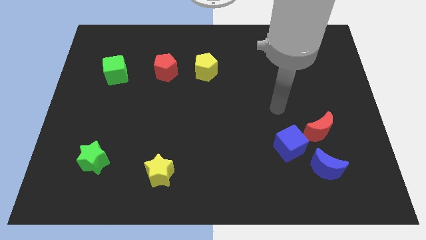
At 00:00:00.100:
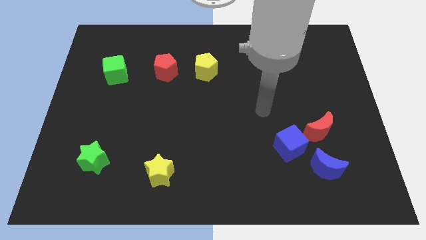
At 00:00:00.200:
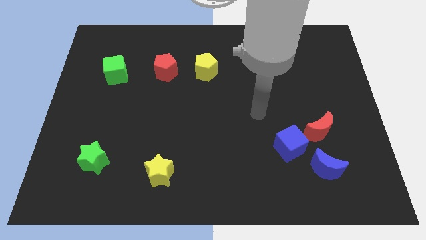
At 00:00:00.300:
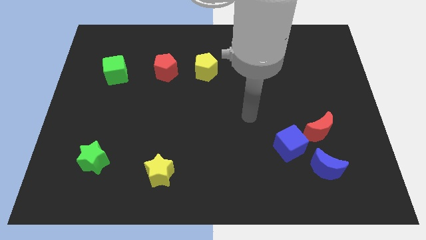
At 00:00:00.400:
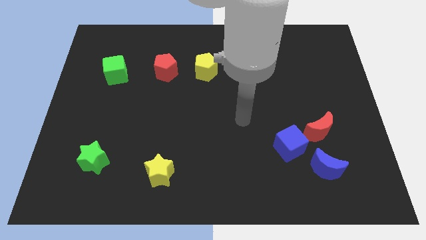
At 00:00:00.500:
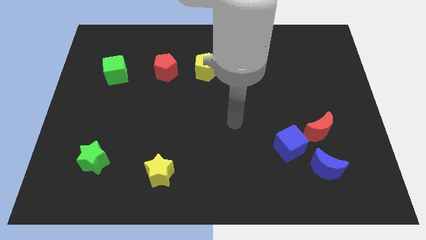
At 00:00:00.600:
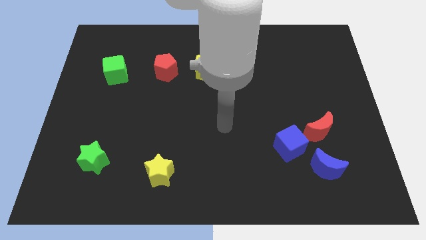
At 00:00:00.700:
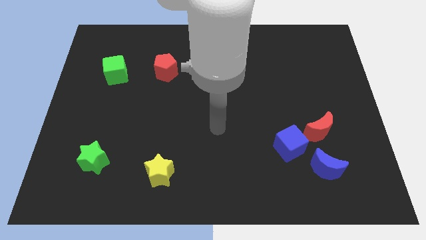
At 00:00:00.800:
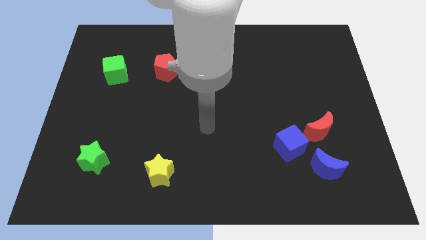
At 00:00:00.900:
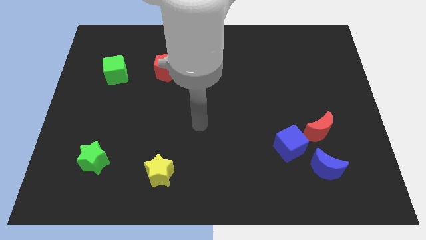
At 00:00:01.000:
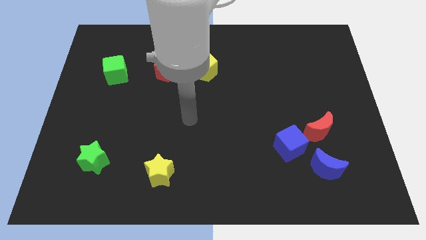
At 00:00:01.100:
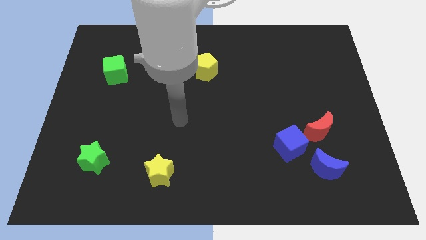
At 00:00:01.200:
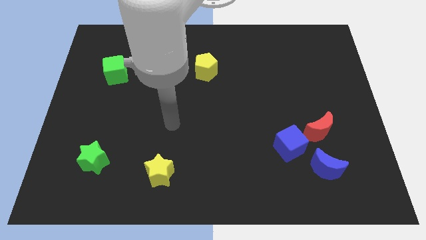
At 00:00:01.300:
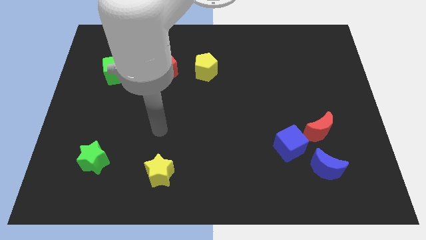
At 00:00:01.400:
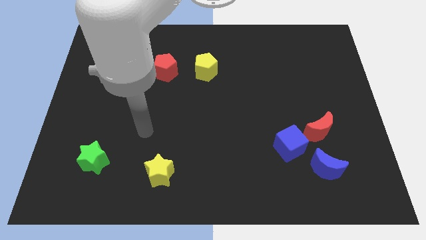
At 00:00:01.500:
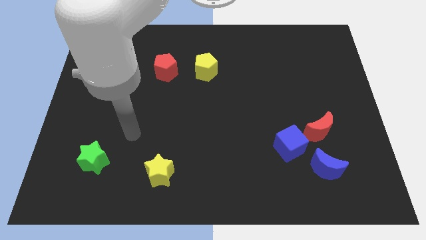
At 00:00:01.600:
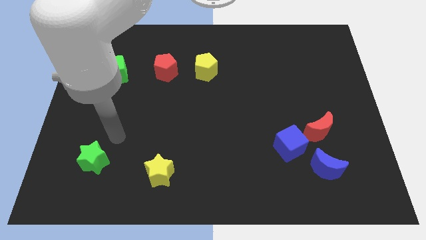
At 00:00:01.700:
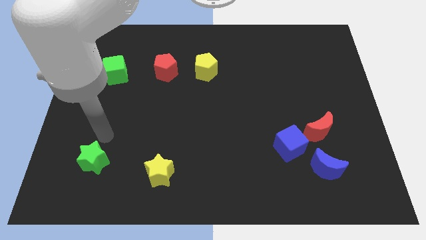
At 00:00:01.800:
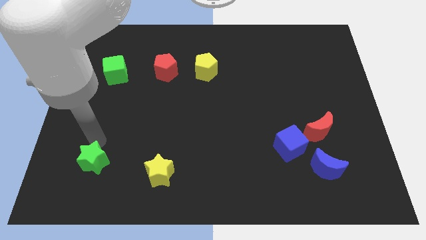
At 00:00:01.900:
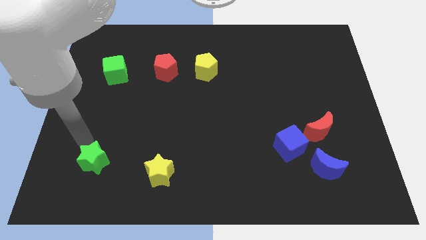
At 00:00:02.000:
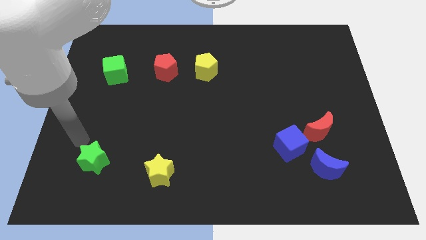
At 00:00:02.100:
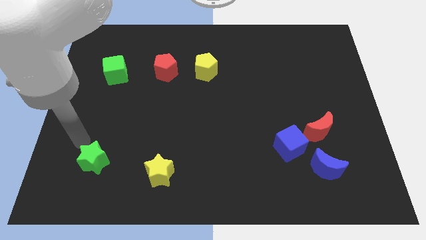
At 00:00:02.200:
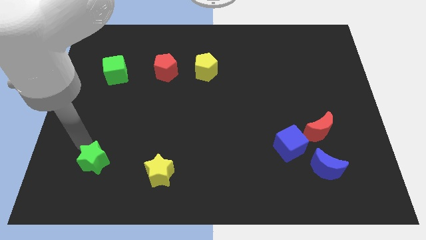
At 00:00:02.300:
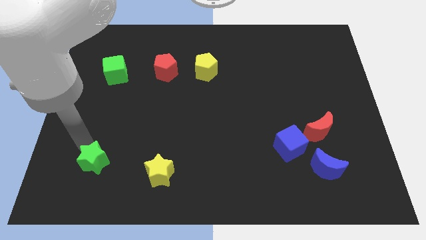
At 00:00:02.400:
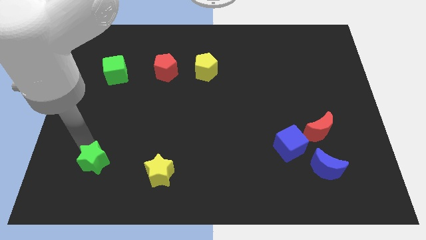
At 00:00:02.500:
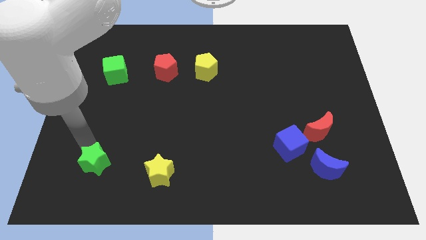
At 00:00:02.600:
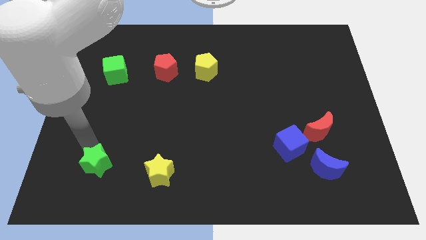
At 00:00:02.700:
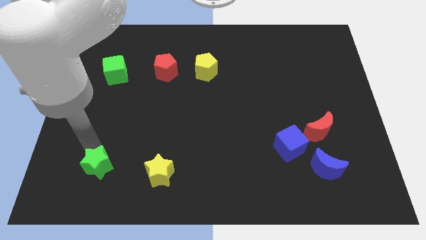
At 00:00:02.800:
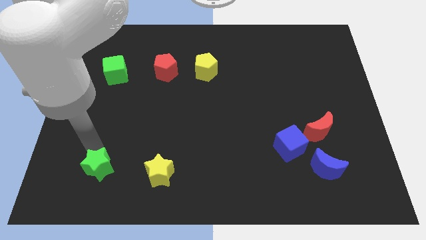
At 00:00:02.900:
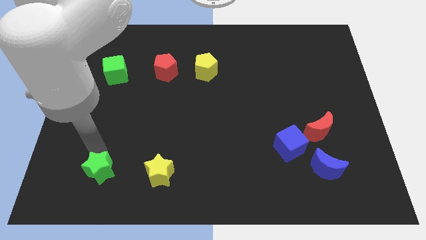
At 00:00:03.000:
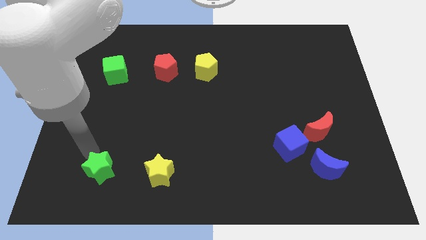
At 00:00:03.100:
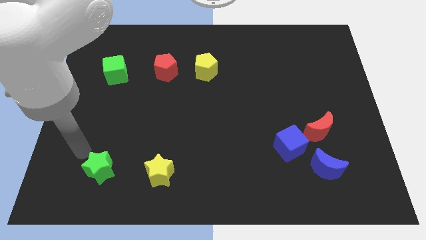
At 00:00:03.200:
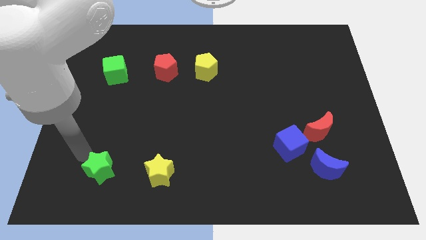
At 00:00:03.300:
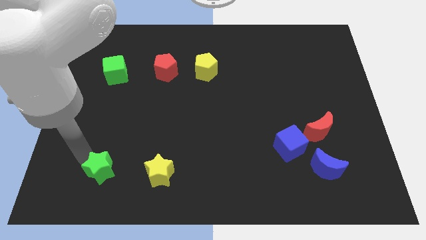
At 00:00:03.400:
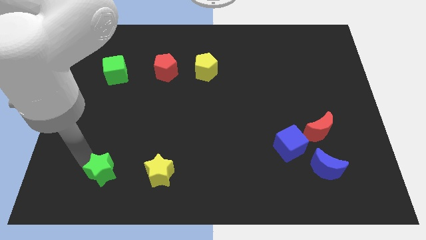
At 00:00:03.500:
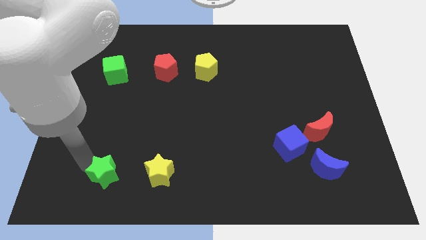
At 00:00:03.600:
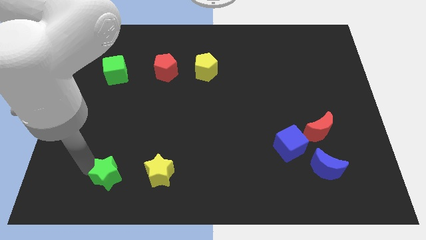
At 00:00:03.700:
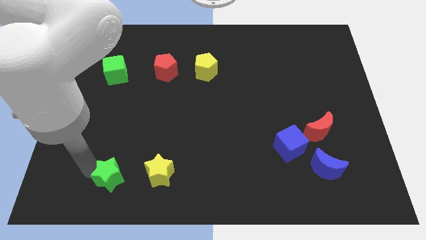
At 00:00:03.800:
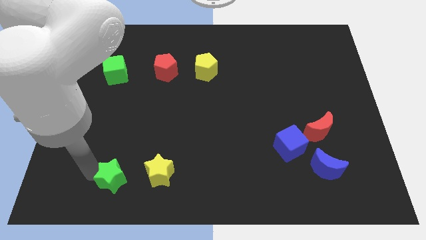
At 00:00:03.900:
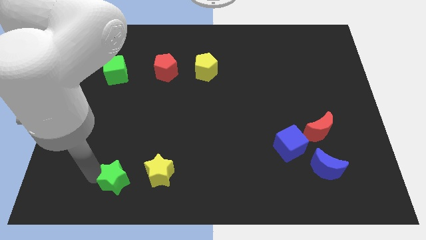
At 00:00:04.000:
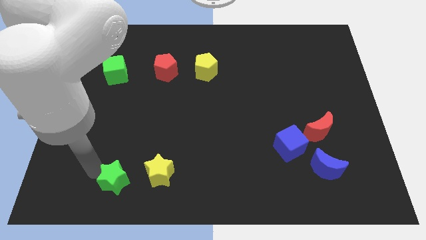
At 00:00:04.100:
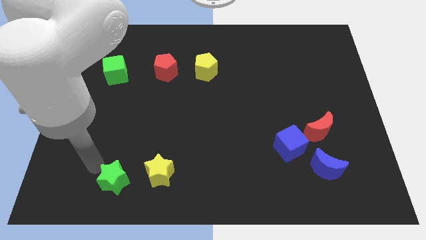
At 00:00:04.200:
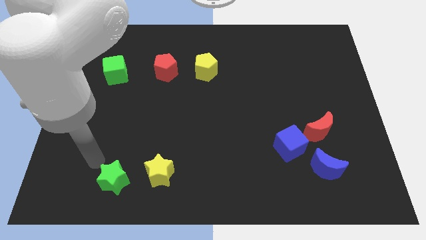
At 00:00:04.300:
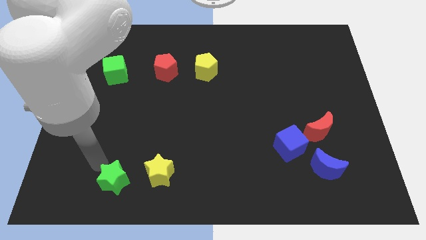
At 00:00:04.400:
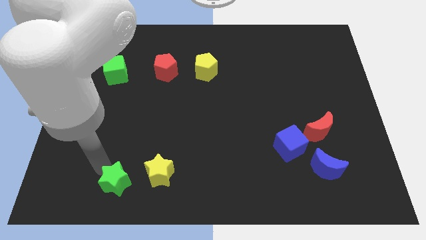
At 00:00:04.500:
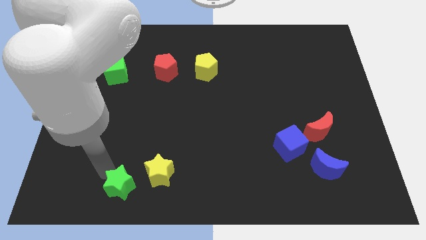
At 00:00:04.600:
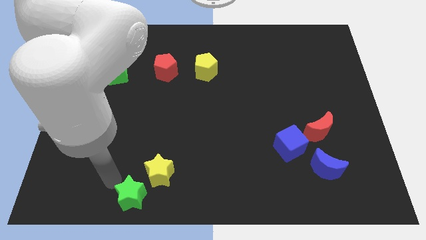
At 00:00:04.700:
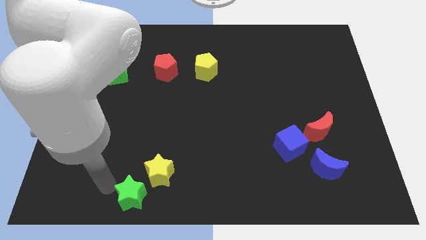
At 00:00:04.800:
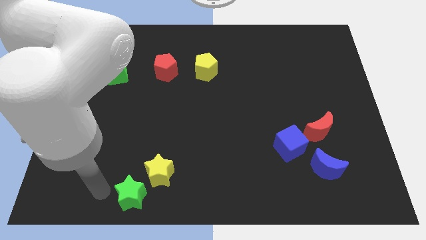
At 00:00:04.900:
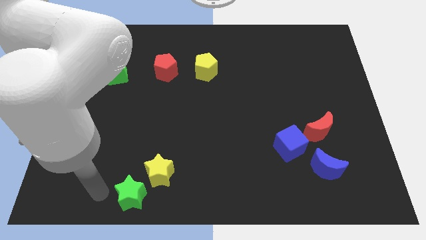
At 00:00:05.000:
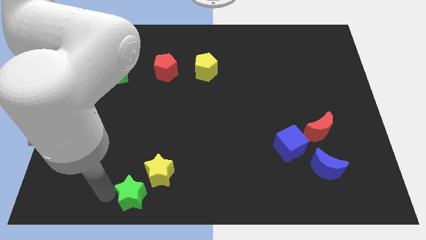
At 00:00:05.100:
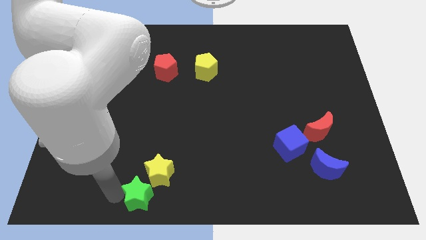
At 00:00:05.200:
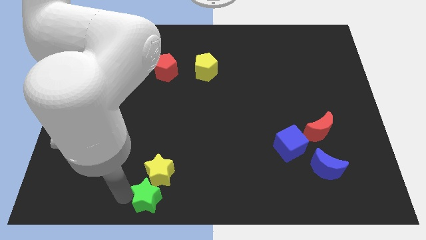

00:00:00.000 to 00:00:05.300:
push the green star to the bottom
